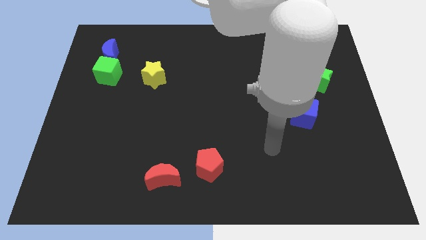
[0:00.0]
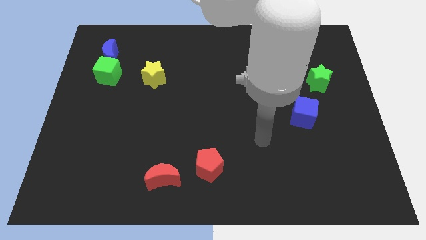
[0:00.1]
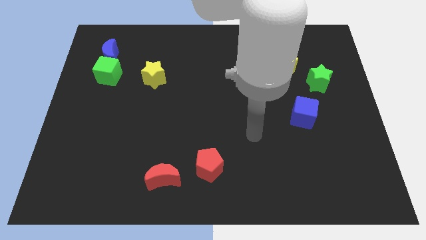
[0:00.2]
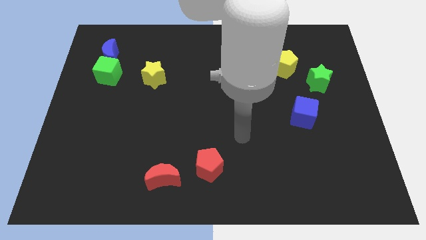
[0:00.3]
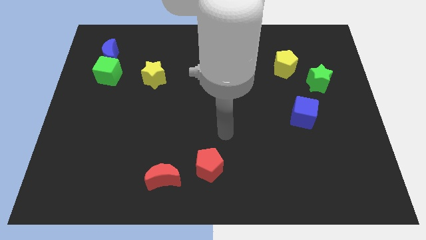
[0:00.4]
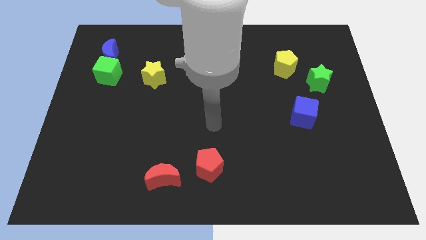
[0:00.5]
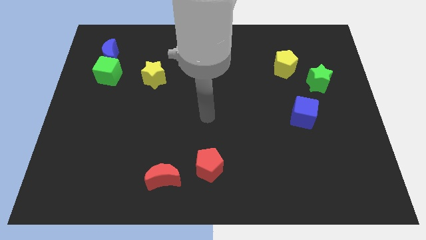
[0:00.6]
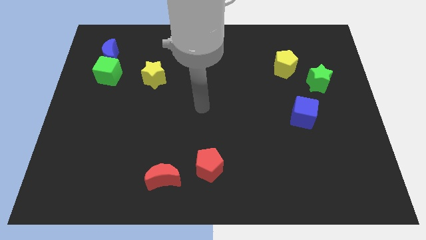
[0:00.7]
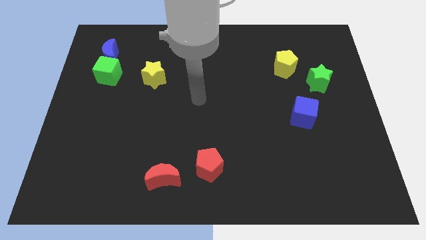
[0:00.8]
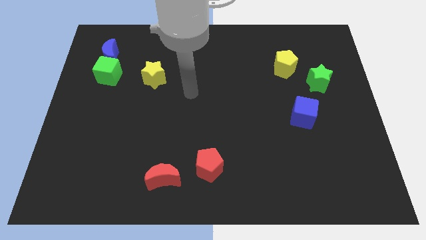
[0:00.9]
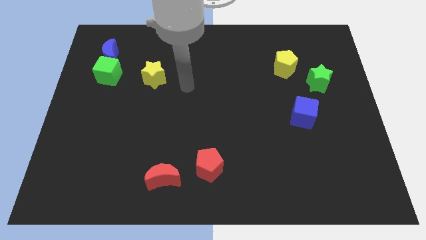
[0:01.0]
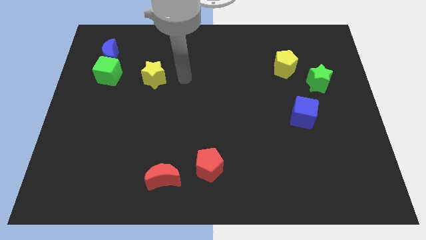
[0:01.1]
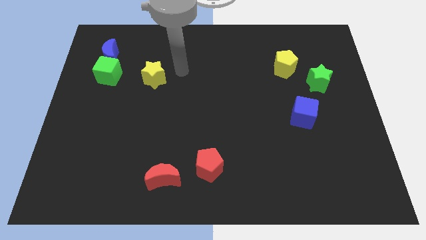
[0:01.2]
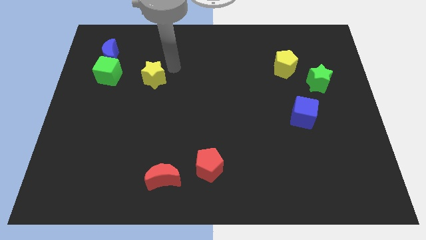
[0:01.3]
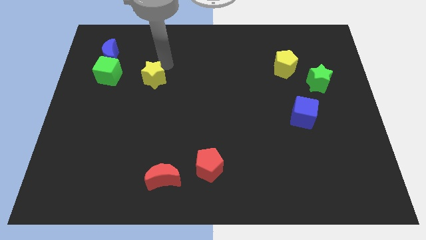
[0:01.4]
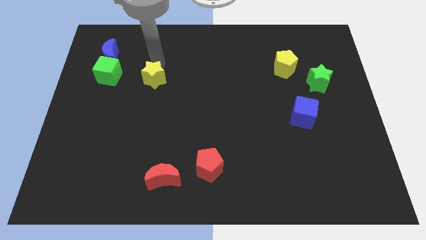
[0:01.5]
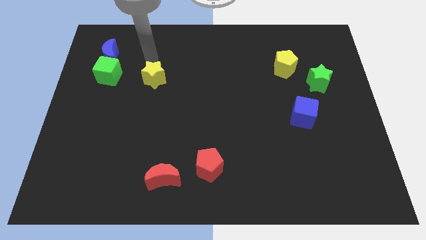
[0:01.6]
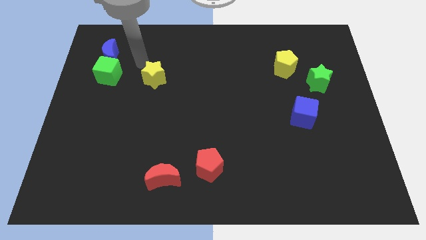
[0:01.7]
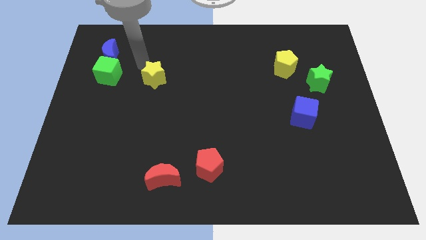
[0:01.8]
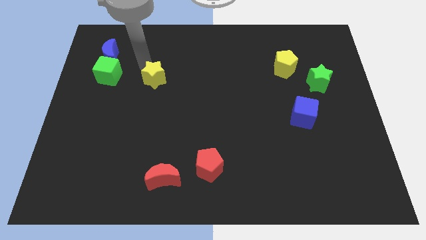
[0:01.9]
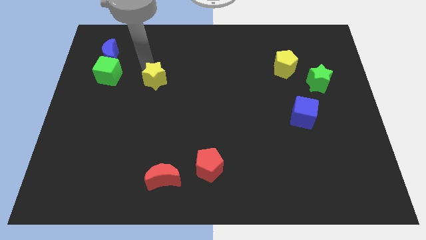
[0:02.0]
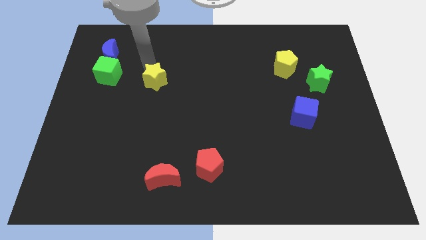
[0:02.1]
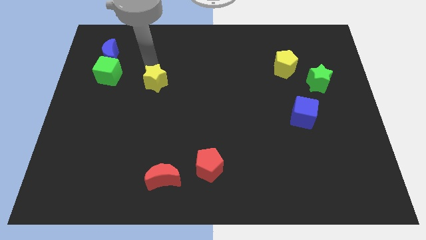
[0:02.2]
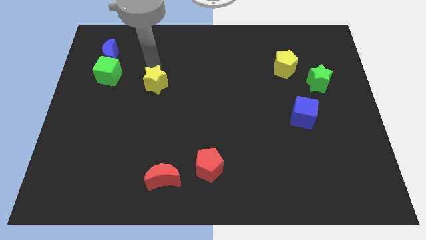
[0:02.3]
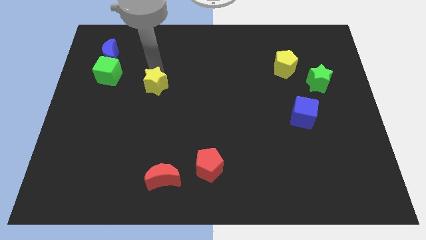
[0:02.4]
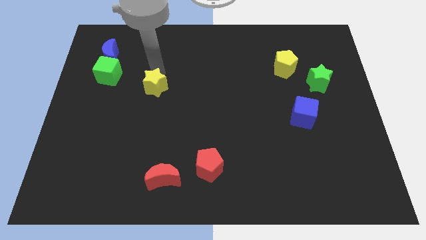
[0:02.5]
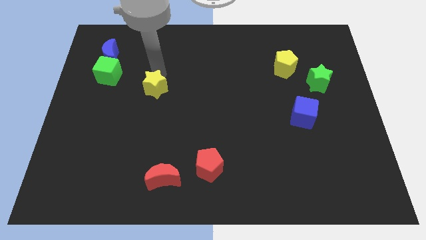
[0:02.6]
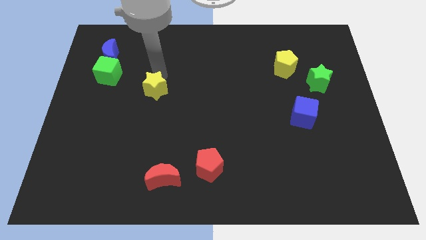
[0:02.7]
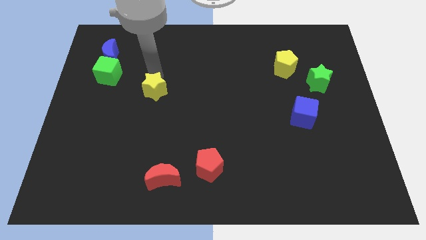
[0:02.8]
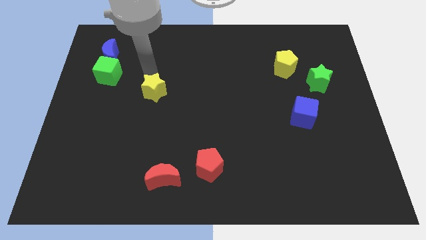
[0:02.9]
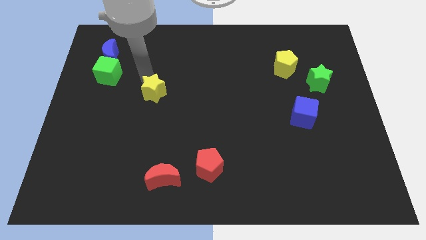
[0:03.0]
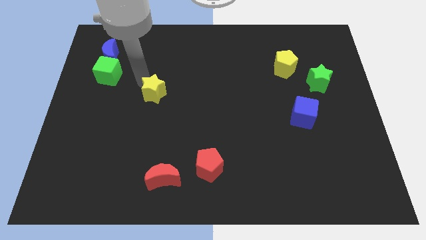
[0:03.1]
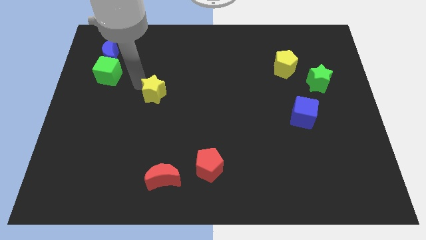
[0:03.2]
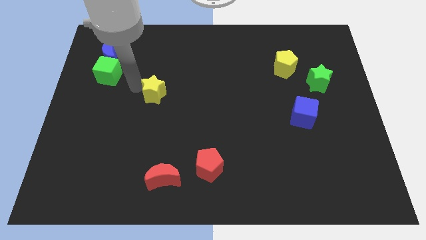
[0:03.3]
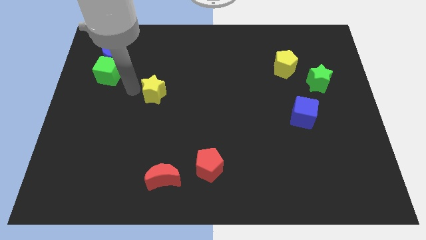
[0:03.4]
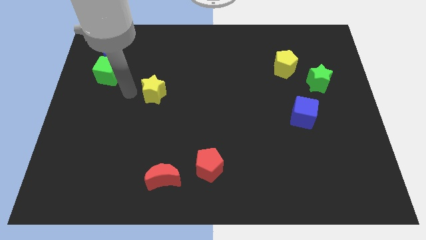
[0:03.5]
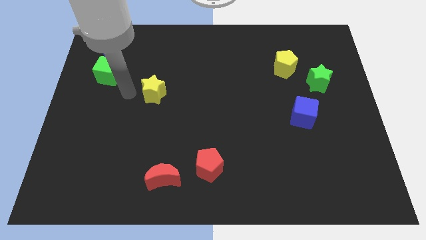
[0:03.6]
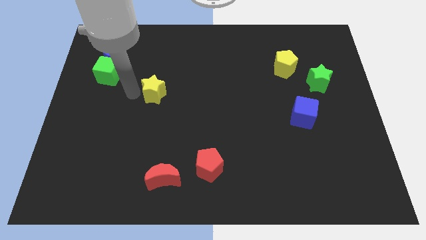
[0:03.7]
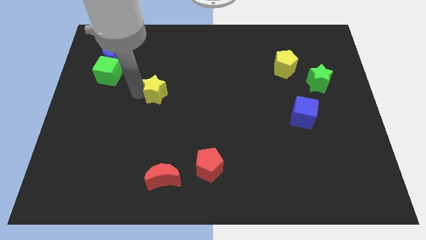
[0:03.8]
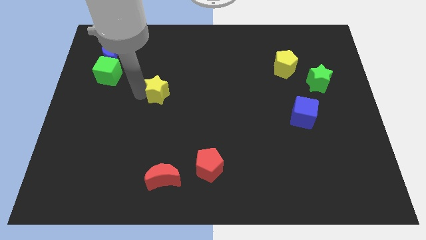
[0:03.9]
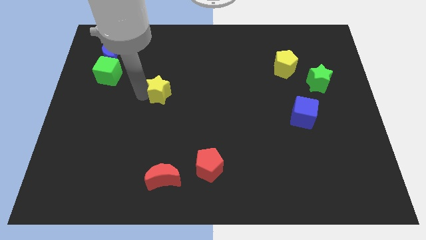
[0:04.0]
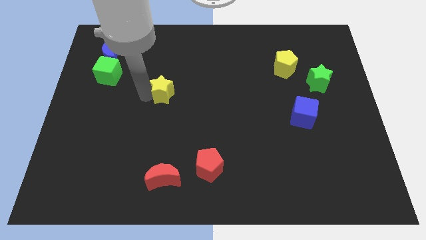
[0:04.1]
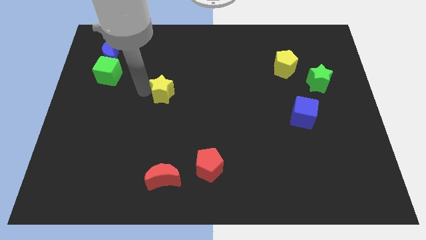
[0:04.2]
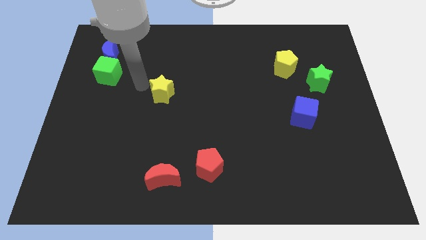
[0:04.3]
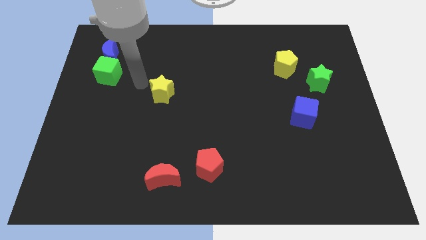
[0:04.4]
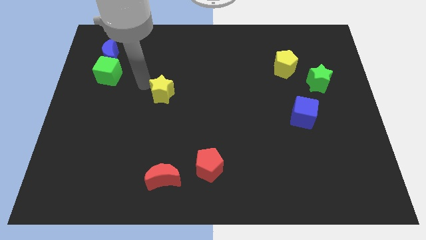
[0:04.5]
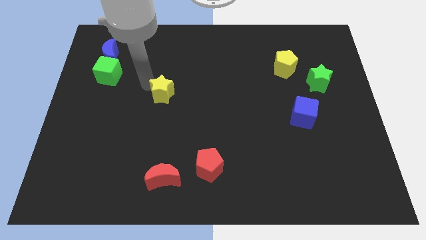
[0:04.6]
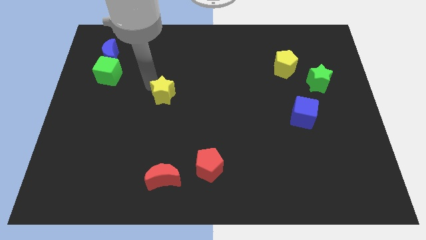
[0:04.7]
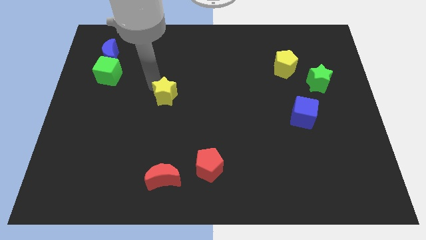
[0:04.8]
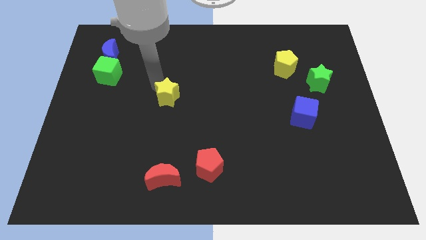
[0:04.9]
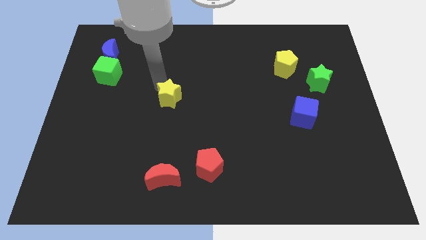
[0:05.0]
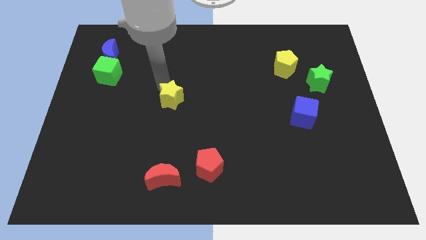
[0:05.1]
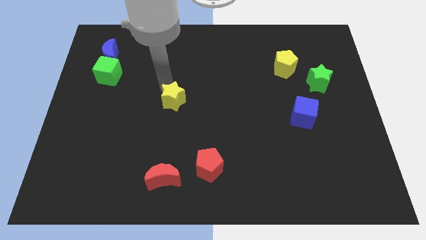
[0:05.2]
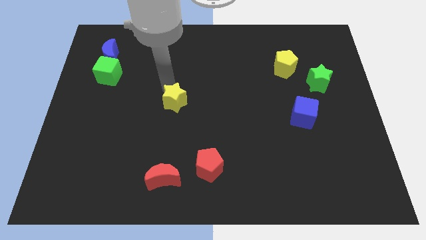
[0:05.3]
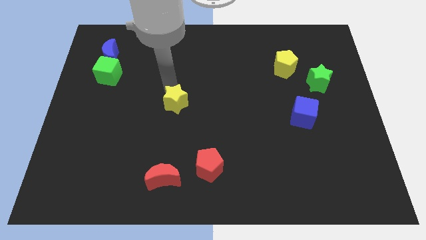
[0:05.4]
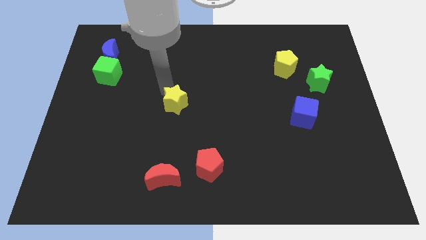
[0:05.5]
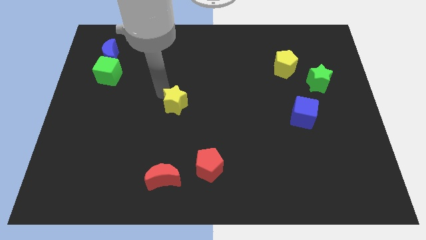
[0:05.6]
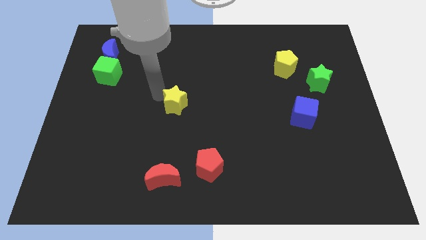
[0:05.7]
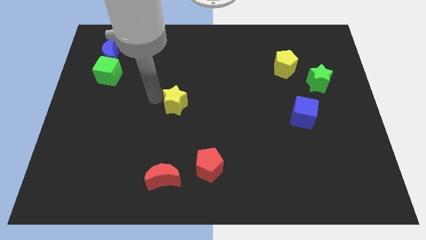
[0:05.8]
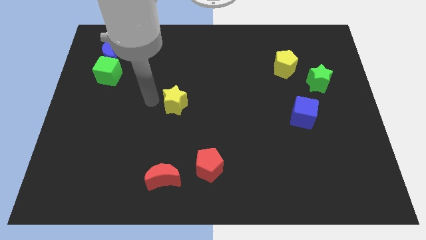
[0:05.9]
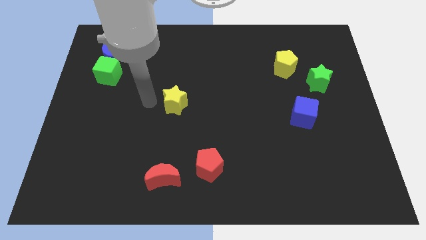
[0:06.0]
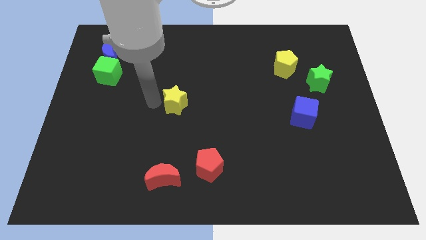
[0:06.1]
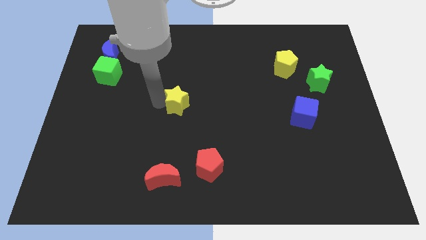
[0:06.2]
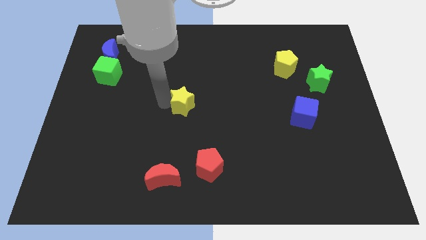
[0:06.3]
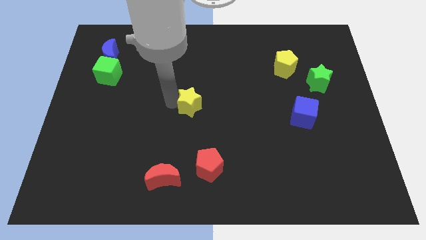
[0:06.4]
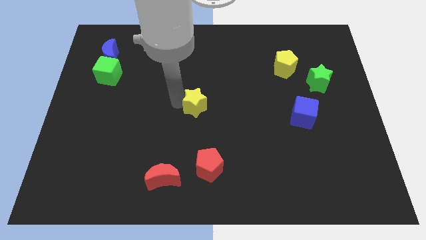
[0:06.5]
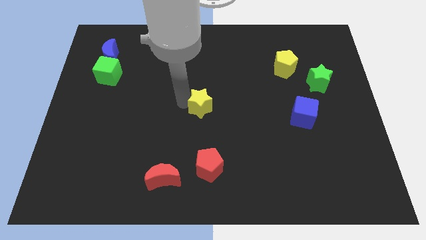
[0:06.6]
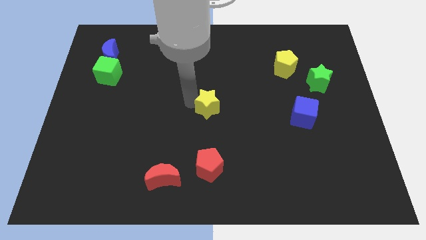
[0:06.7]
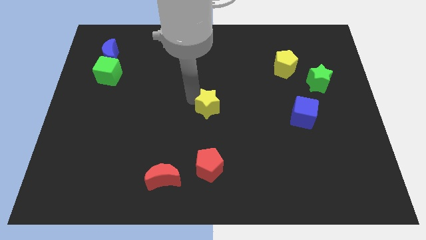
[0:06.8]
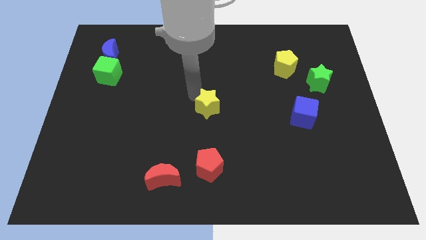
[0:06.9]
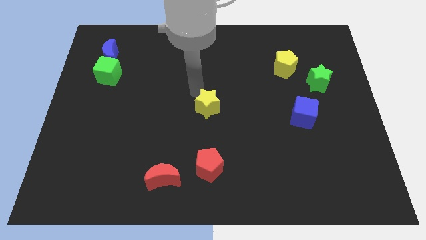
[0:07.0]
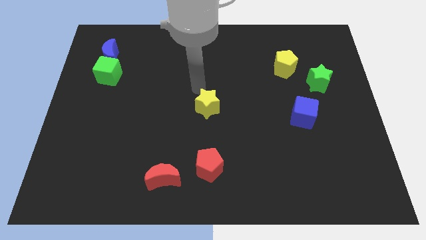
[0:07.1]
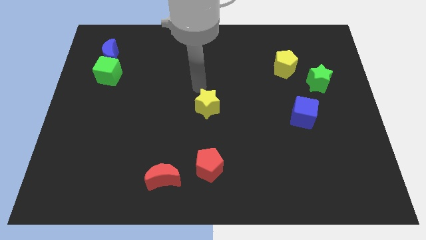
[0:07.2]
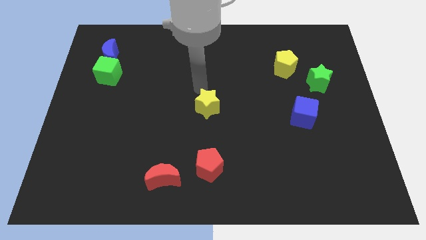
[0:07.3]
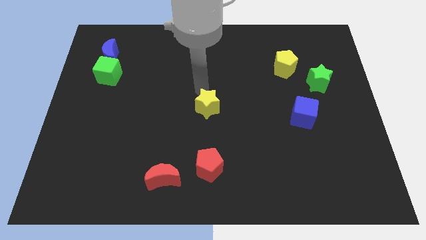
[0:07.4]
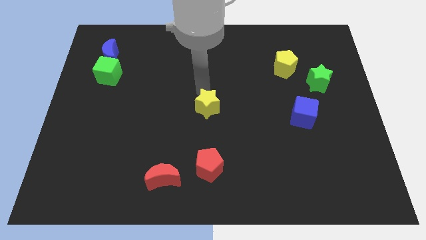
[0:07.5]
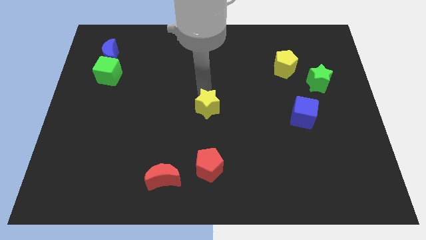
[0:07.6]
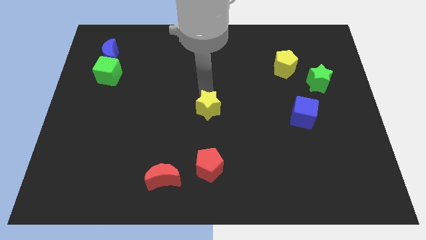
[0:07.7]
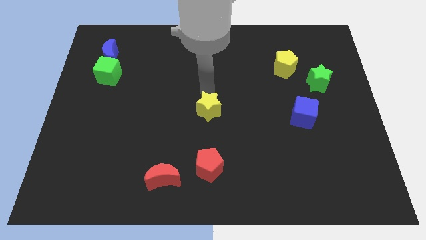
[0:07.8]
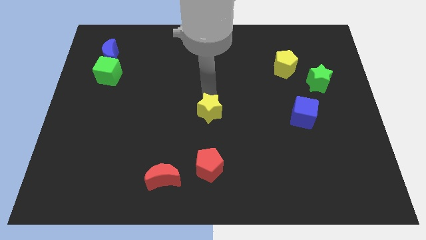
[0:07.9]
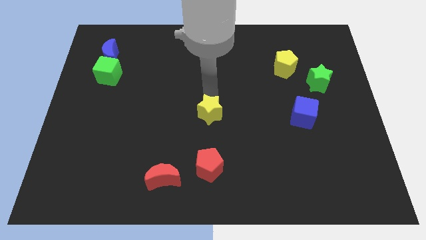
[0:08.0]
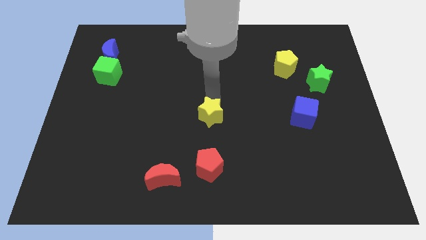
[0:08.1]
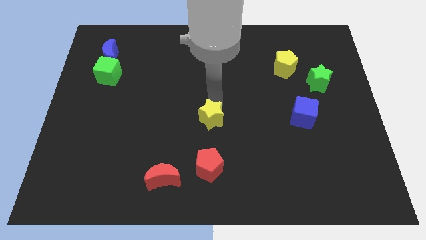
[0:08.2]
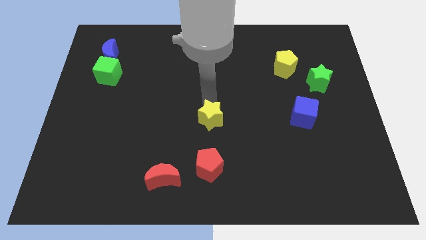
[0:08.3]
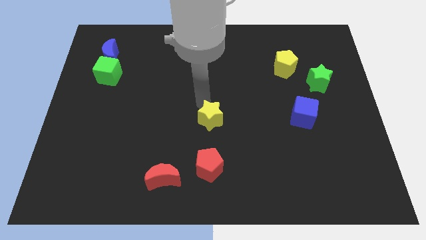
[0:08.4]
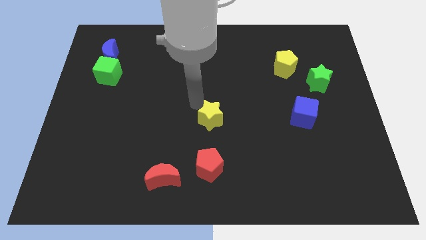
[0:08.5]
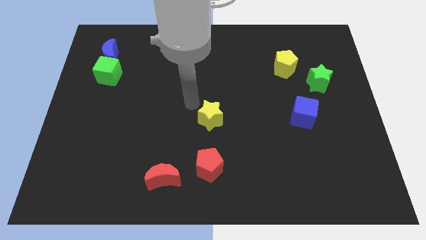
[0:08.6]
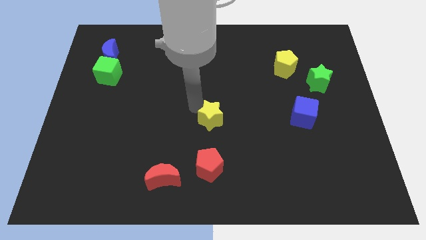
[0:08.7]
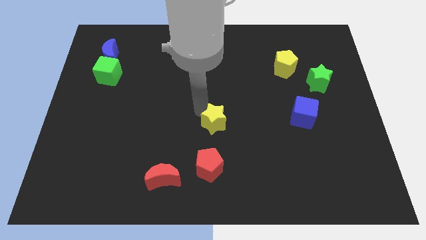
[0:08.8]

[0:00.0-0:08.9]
slide the yellow star downwards and to the right diagonally
